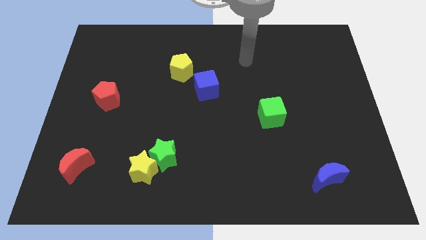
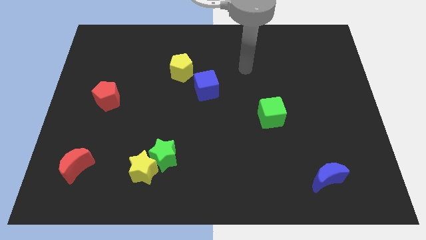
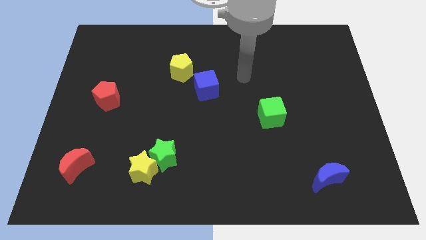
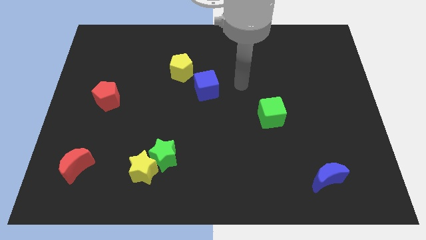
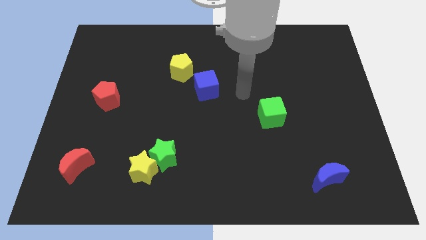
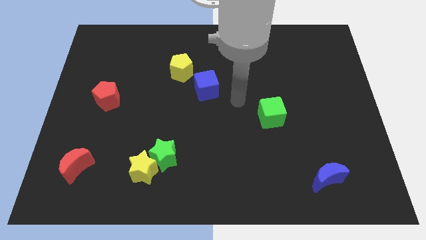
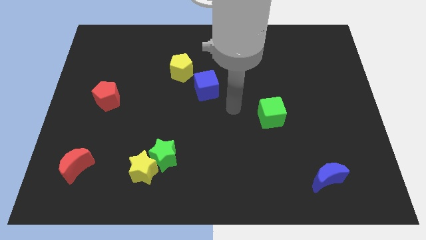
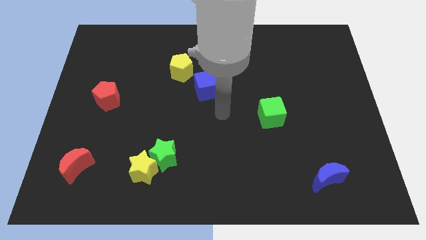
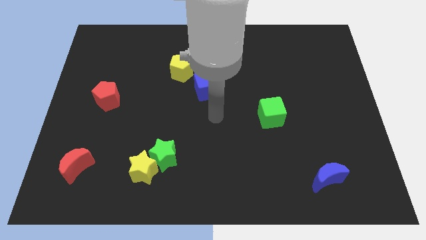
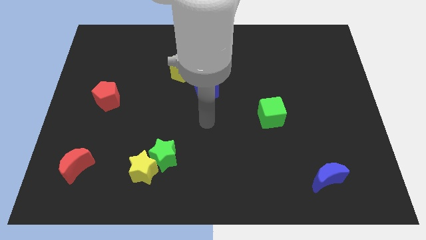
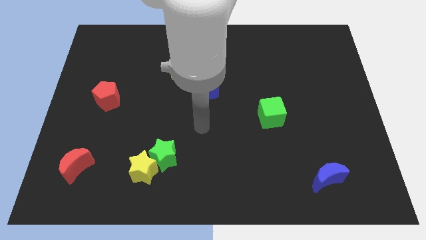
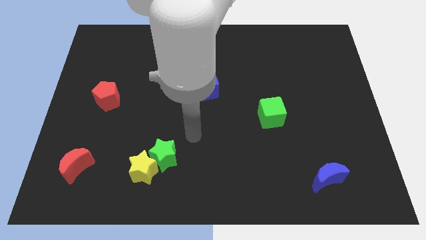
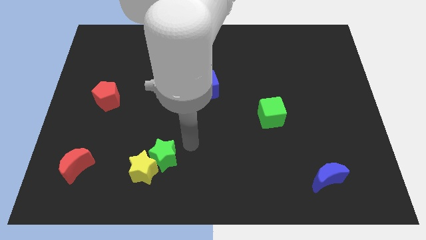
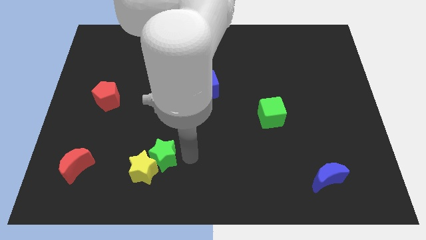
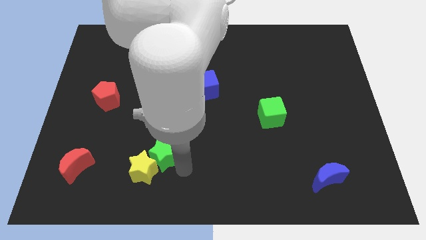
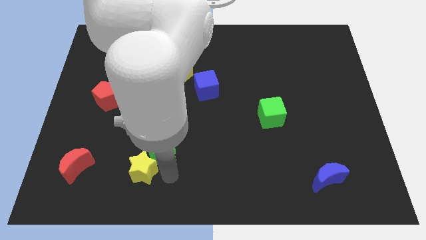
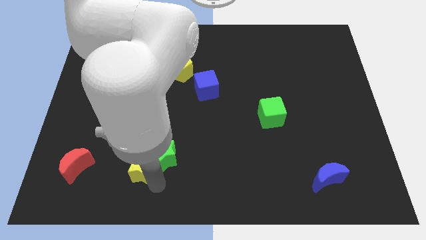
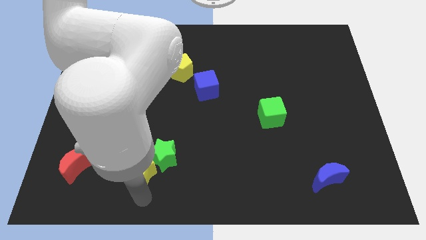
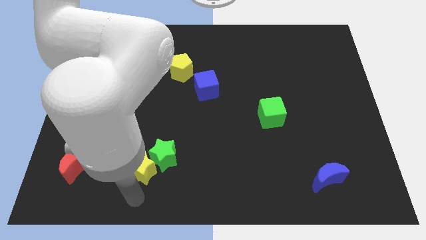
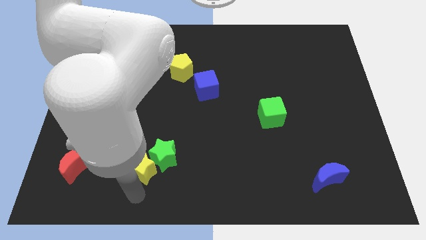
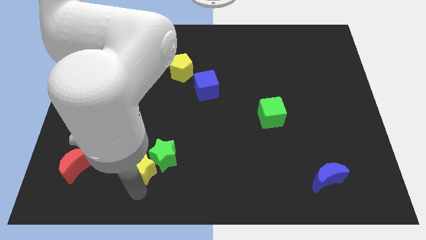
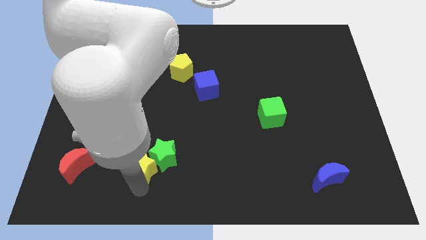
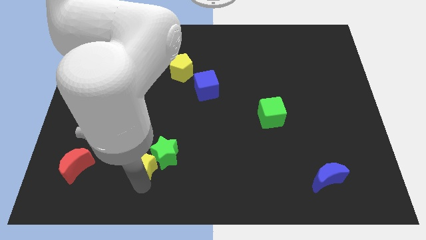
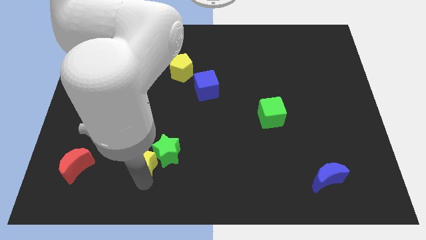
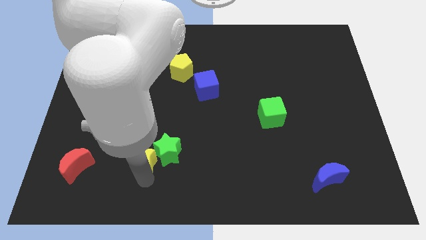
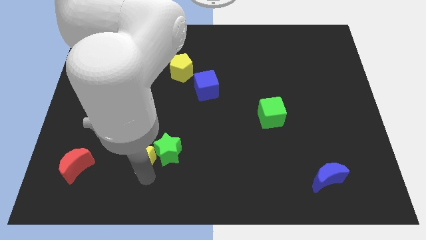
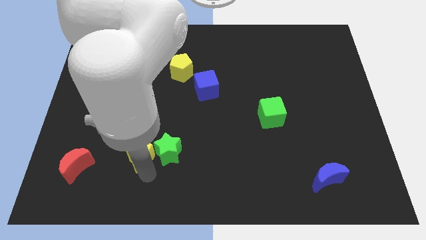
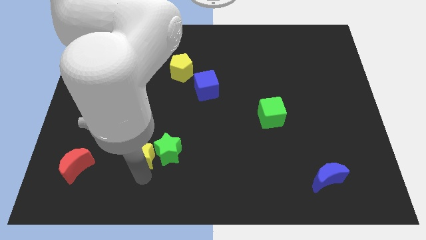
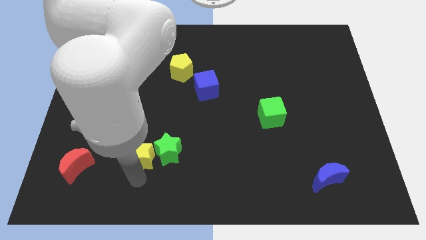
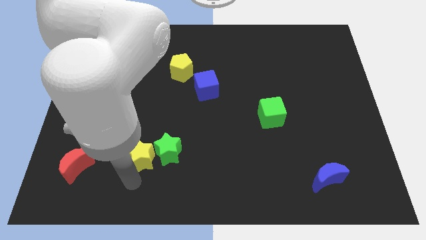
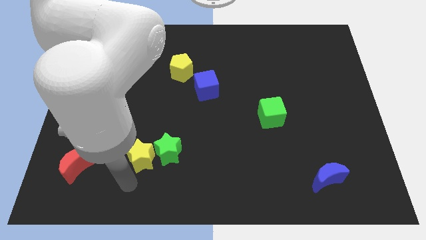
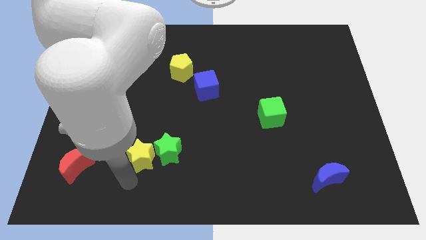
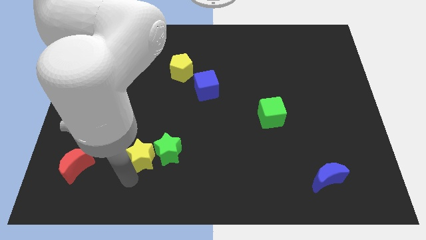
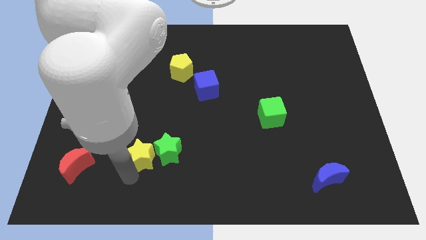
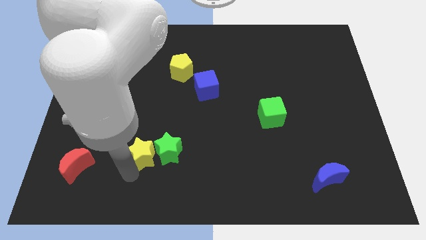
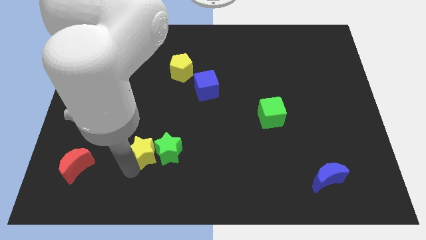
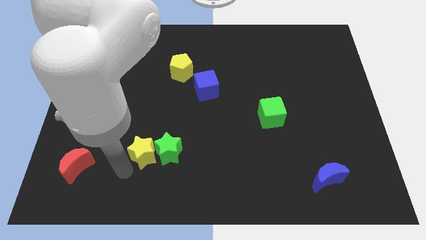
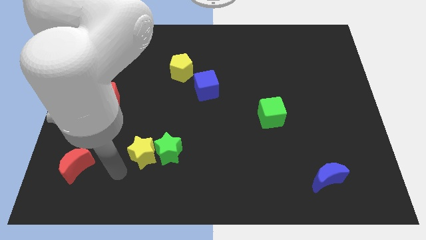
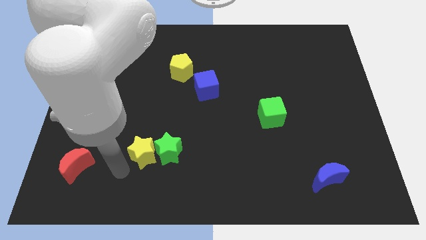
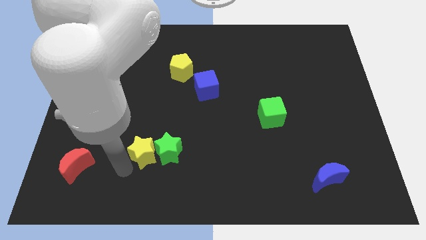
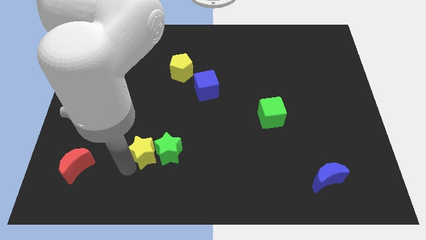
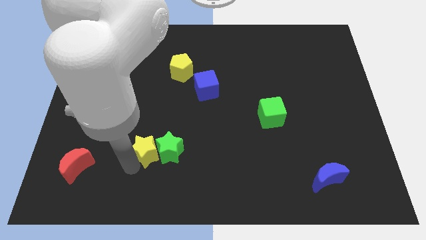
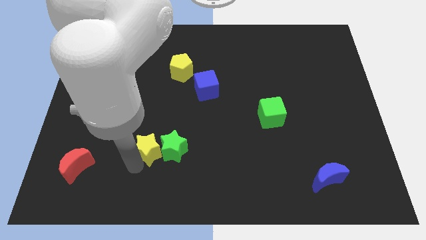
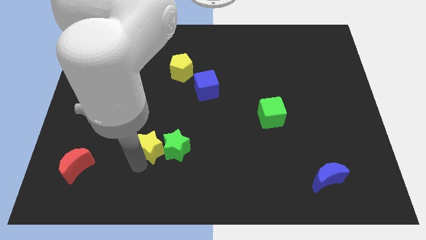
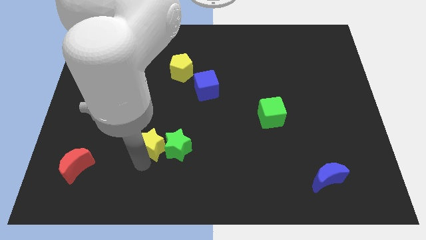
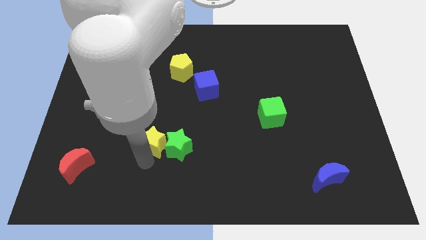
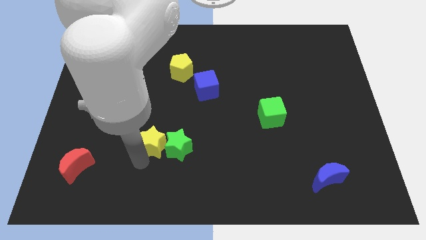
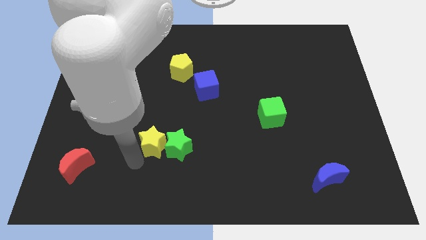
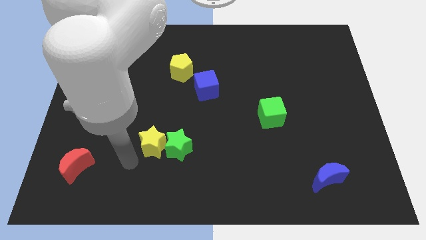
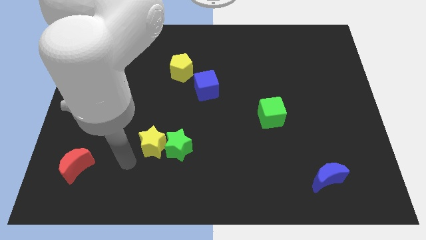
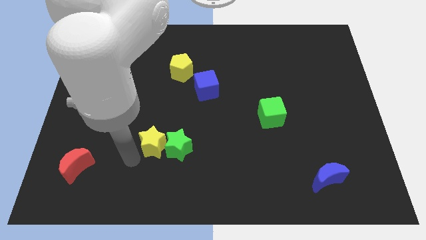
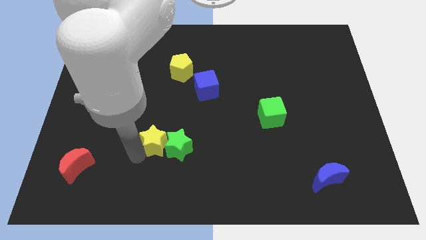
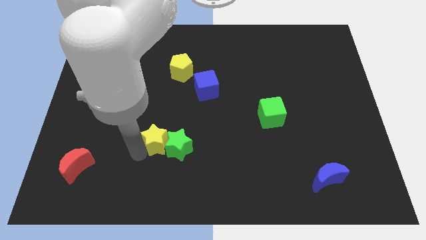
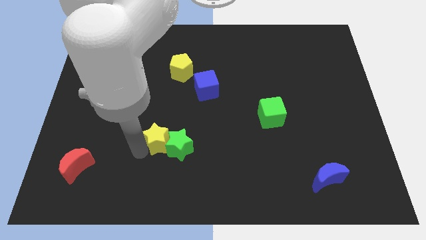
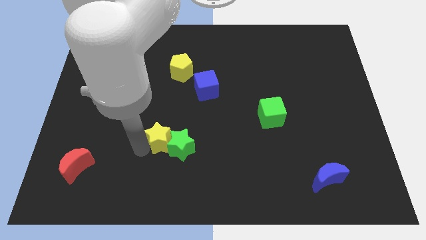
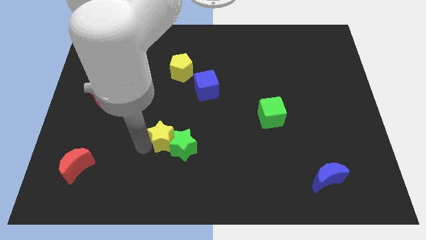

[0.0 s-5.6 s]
slightly slide the yellow star up and right diagonally

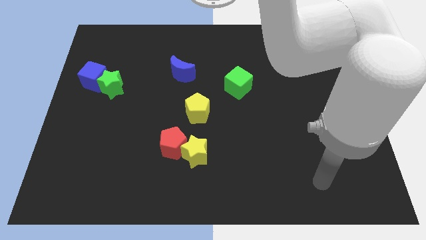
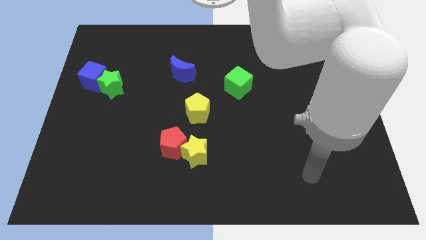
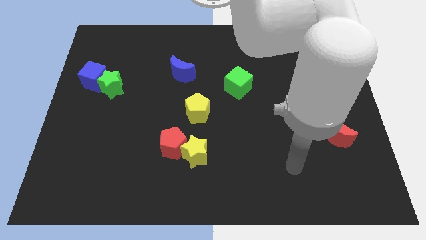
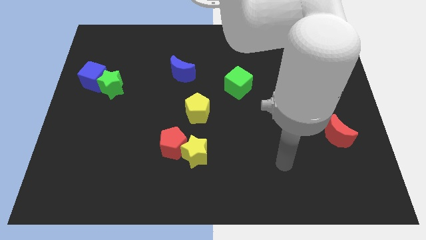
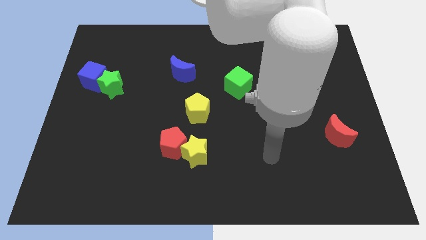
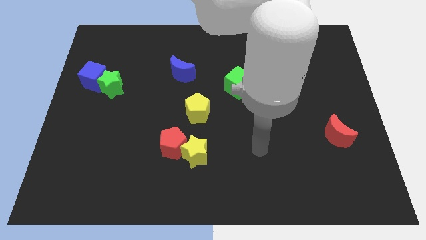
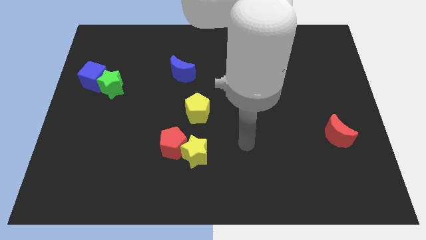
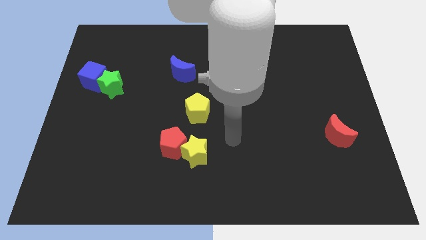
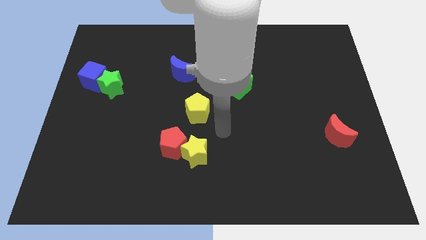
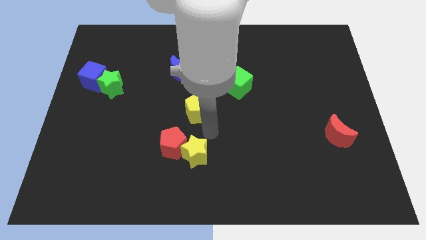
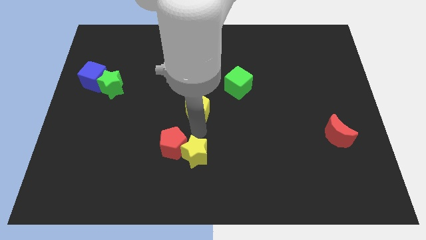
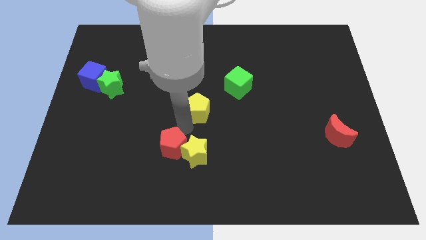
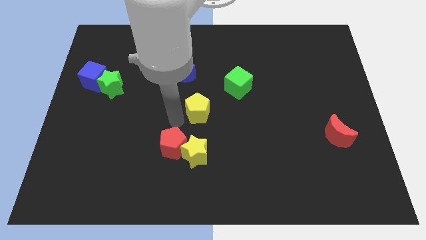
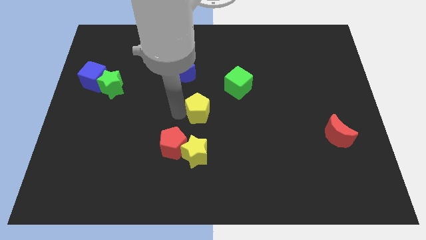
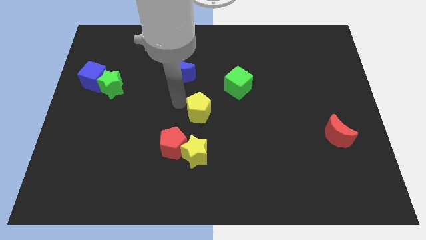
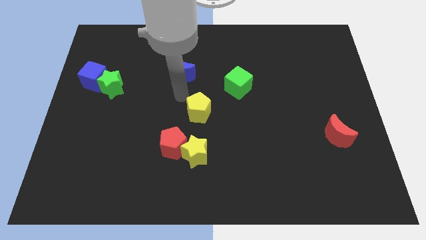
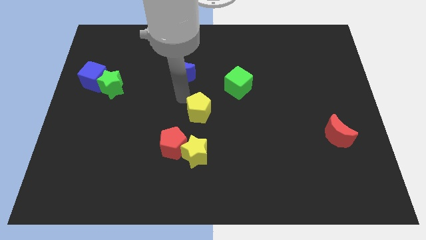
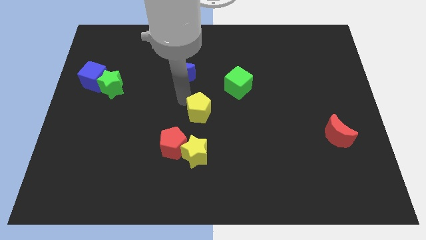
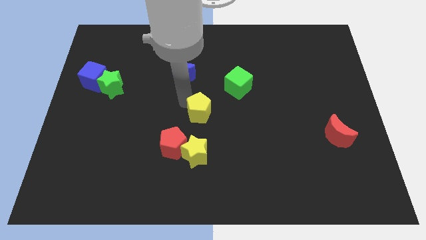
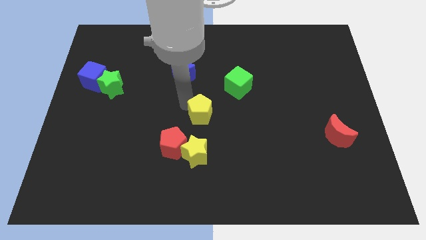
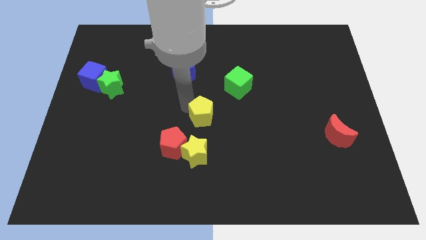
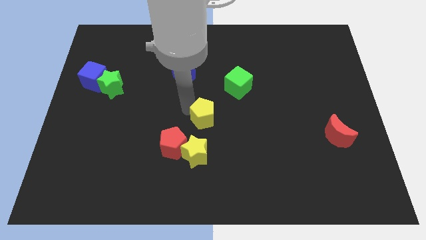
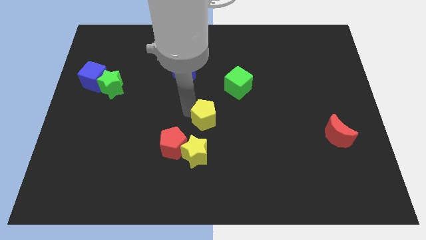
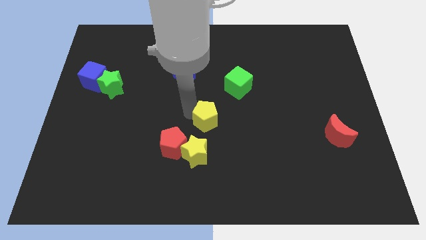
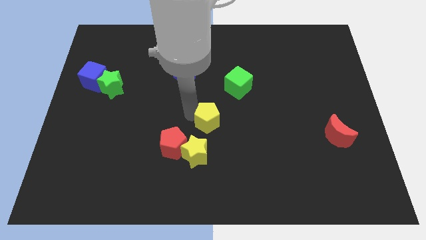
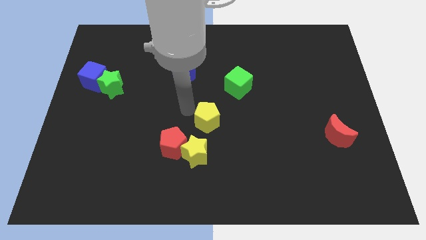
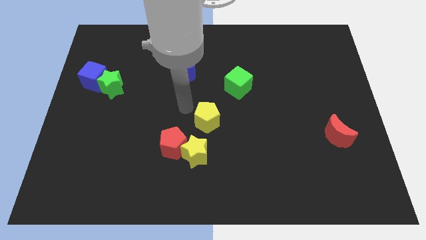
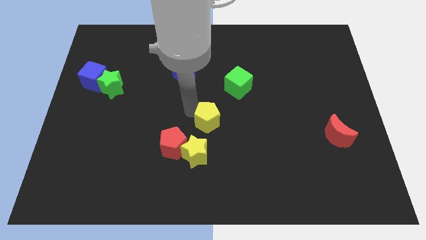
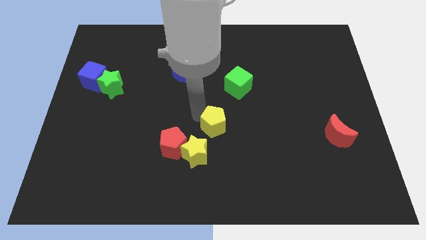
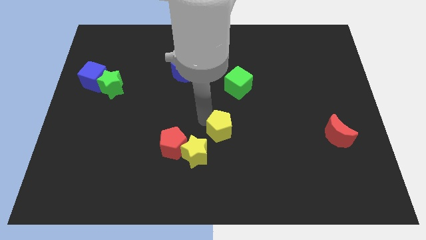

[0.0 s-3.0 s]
slightly push the yellow pentagon down and to the right
